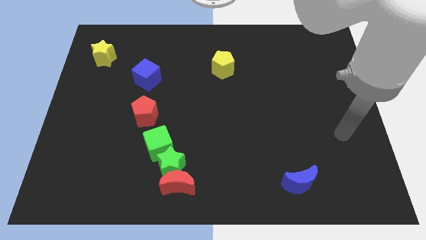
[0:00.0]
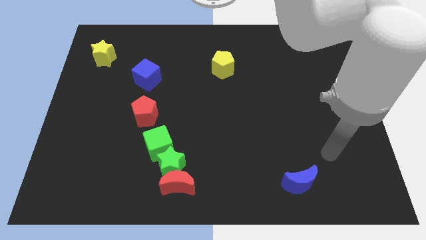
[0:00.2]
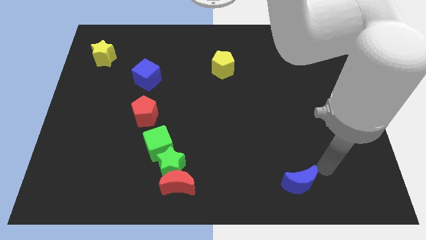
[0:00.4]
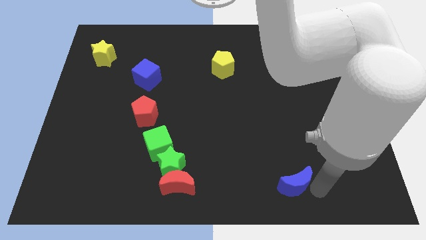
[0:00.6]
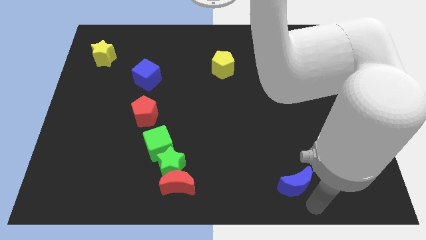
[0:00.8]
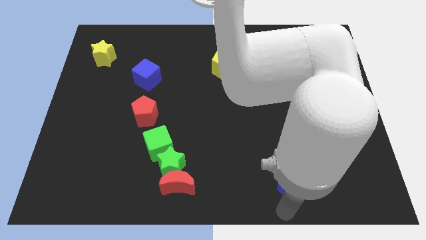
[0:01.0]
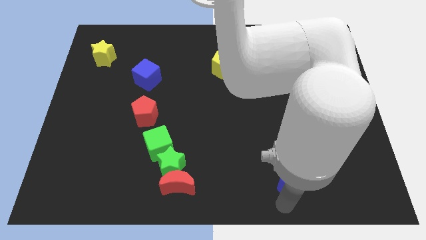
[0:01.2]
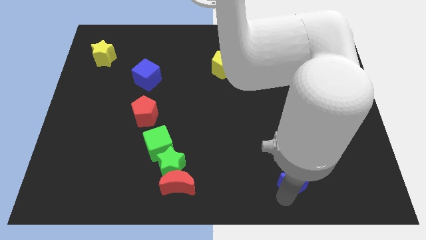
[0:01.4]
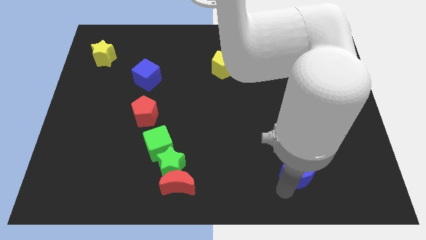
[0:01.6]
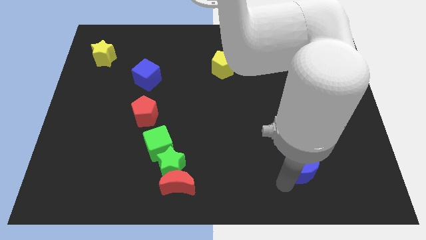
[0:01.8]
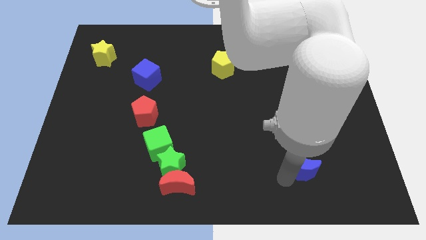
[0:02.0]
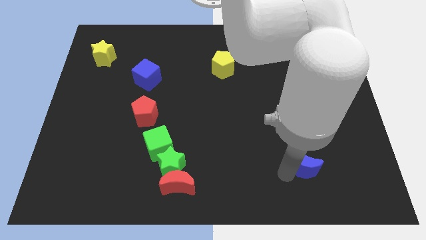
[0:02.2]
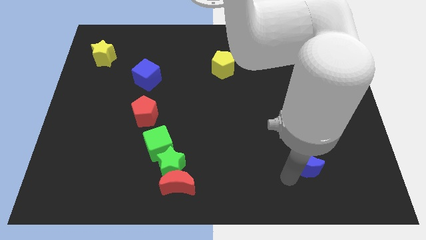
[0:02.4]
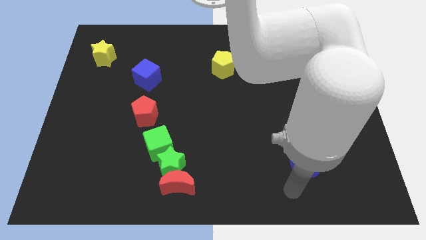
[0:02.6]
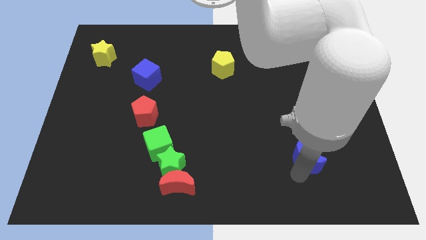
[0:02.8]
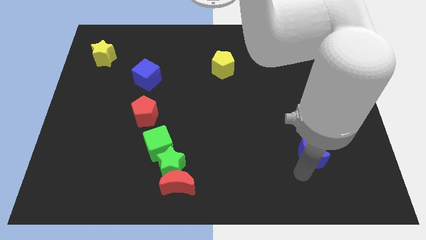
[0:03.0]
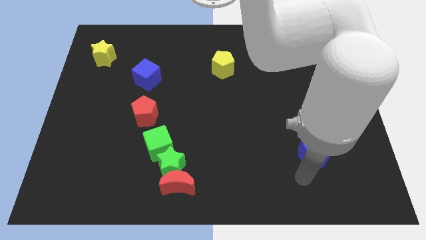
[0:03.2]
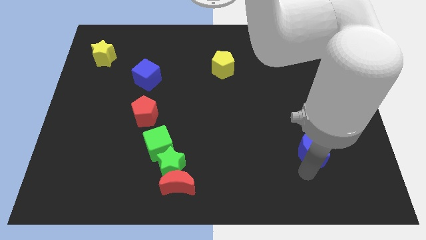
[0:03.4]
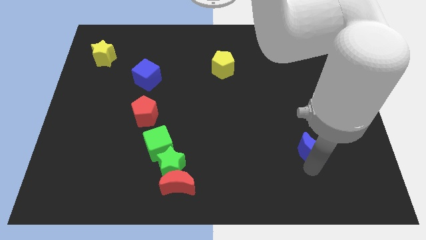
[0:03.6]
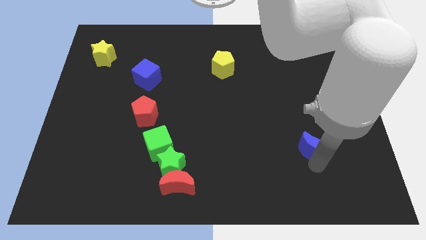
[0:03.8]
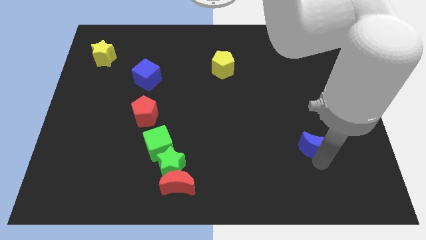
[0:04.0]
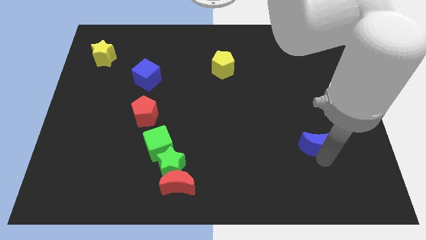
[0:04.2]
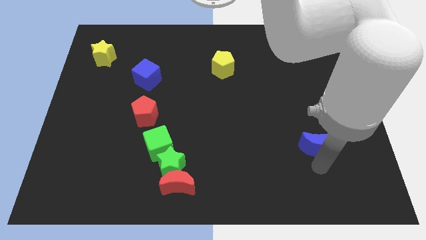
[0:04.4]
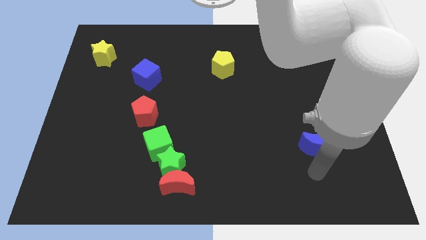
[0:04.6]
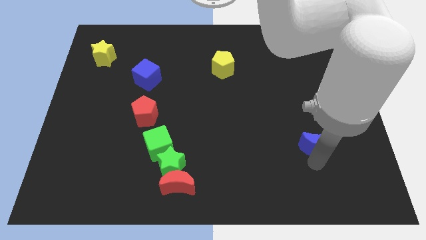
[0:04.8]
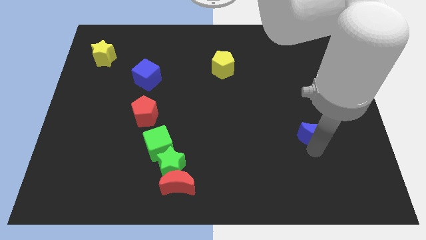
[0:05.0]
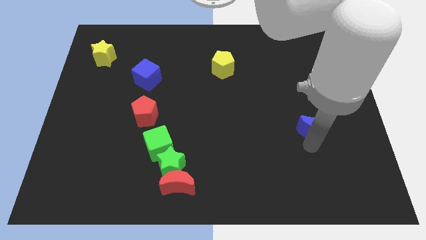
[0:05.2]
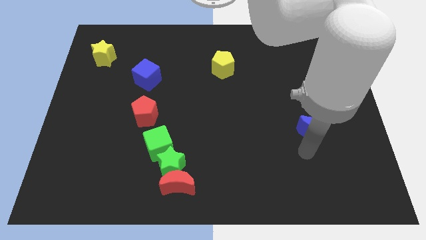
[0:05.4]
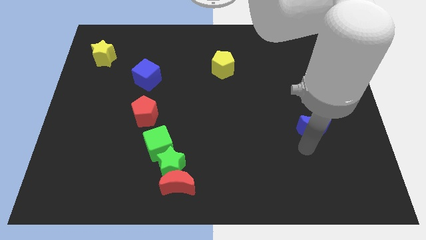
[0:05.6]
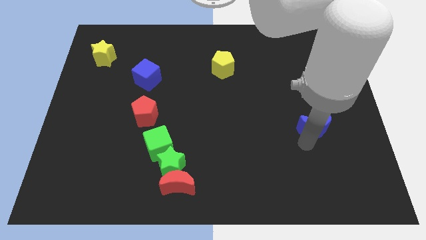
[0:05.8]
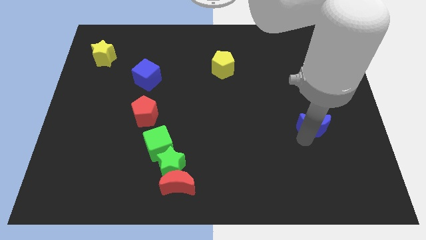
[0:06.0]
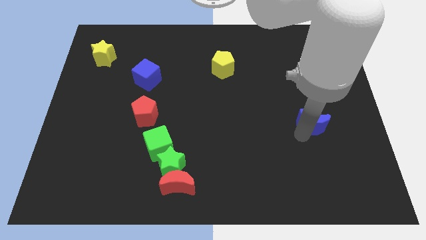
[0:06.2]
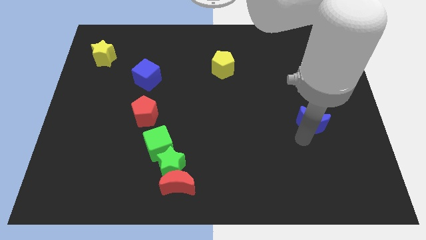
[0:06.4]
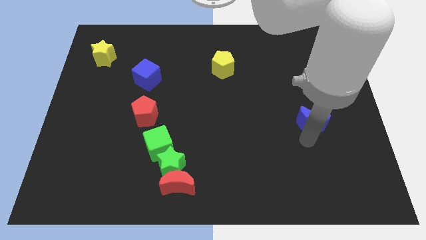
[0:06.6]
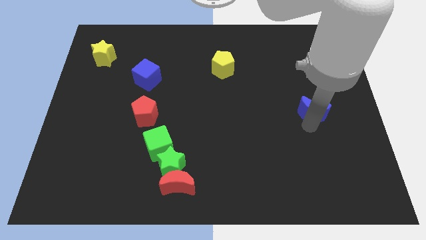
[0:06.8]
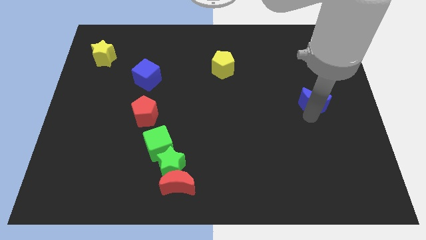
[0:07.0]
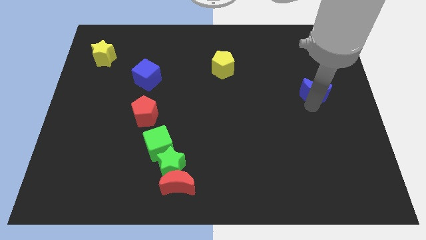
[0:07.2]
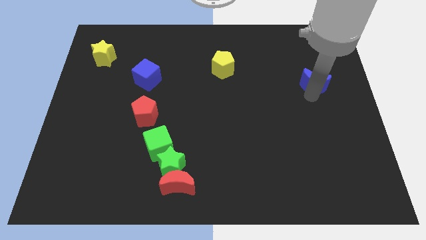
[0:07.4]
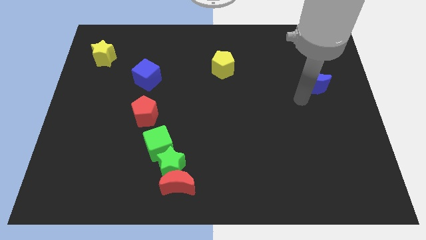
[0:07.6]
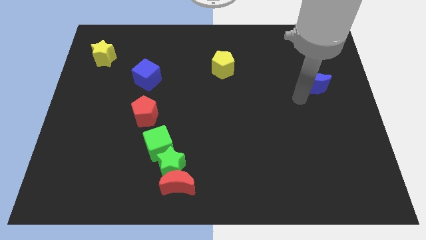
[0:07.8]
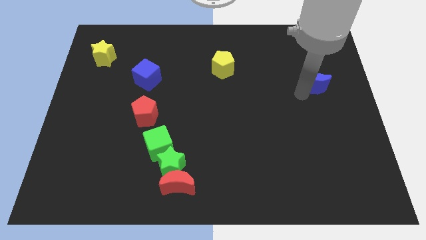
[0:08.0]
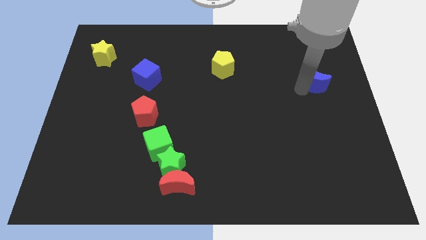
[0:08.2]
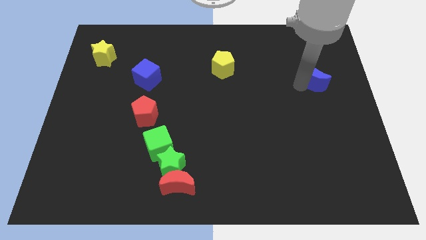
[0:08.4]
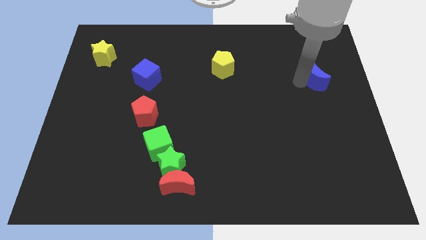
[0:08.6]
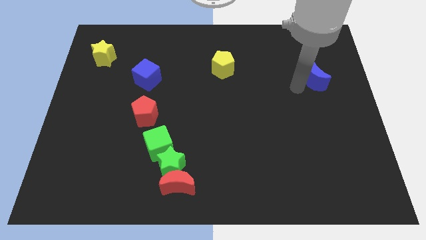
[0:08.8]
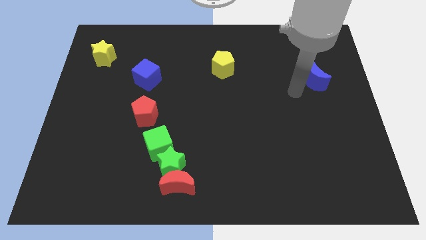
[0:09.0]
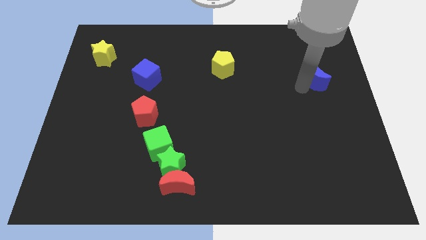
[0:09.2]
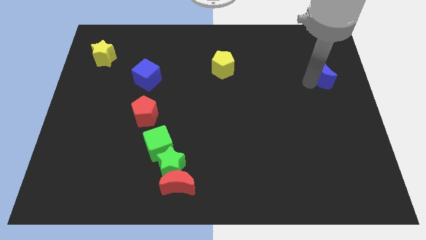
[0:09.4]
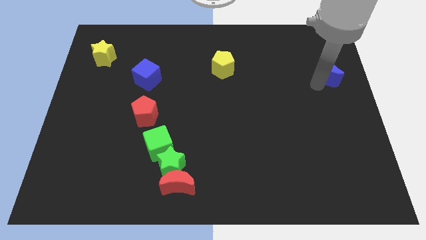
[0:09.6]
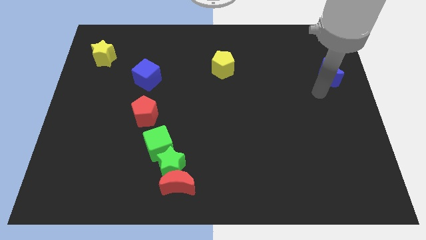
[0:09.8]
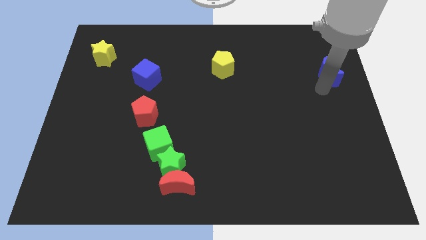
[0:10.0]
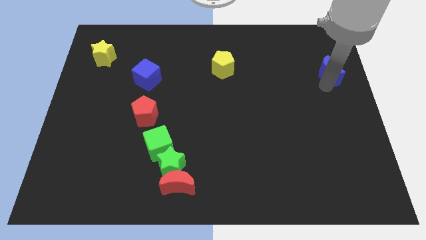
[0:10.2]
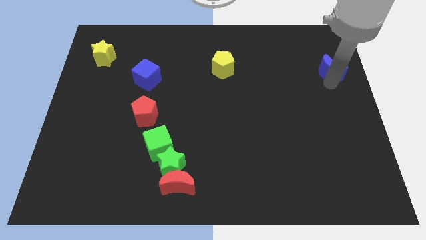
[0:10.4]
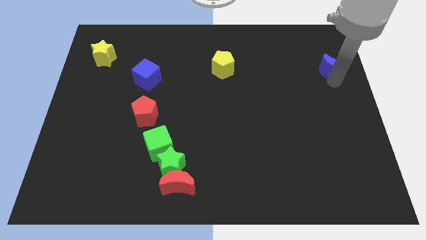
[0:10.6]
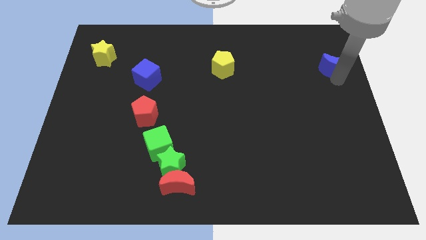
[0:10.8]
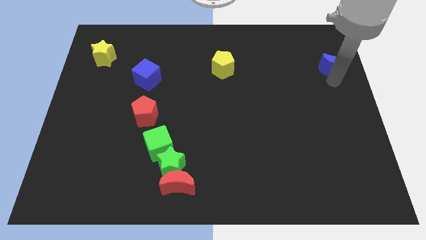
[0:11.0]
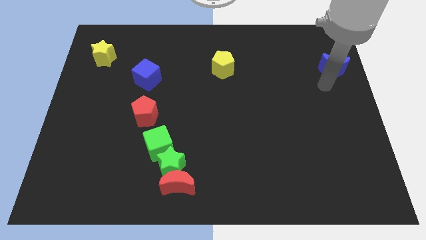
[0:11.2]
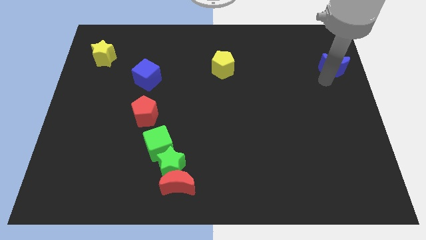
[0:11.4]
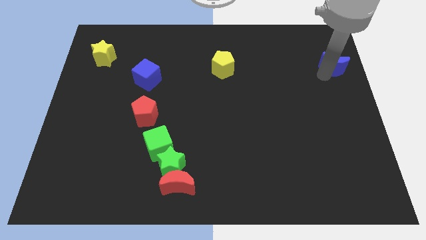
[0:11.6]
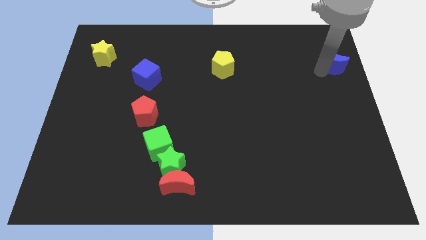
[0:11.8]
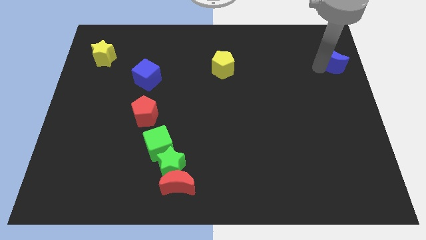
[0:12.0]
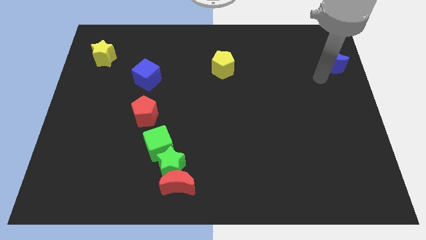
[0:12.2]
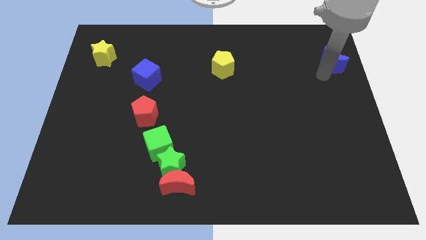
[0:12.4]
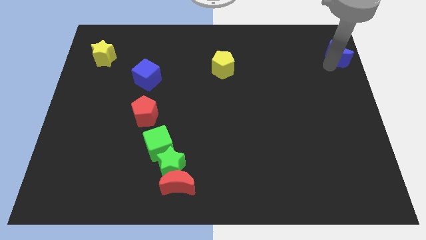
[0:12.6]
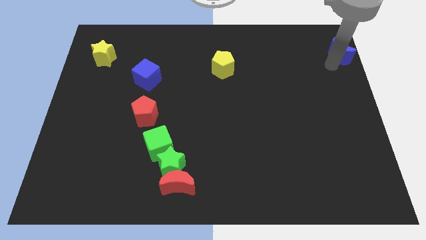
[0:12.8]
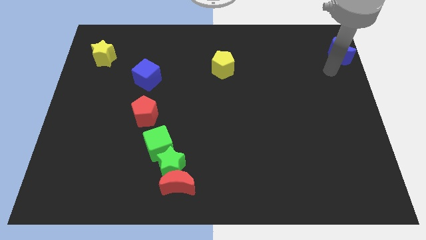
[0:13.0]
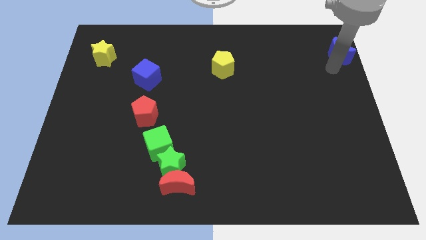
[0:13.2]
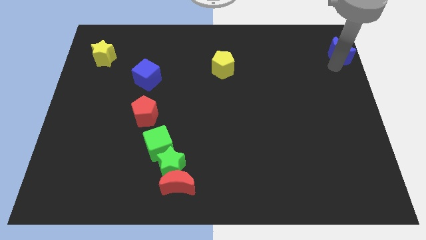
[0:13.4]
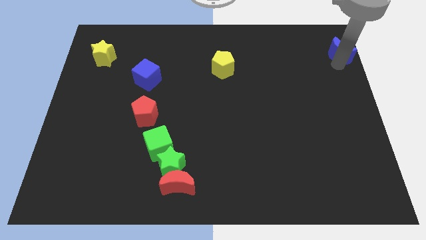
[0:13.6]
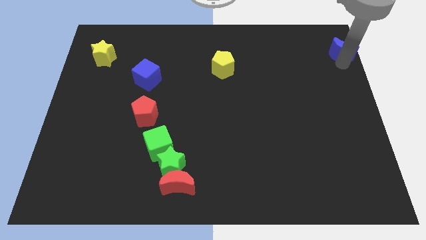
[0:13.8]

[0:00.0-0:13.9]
push the blue moon to the upper right corner
